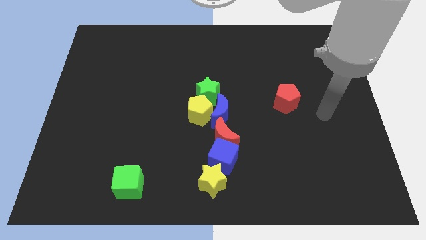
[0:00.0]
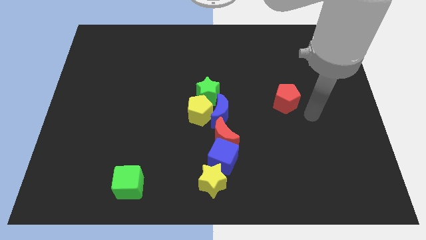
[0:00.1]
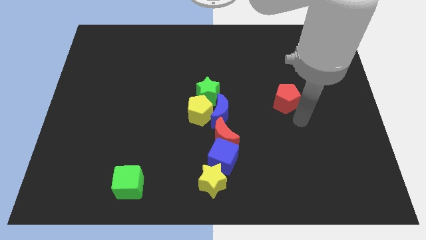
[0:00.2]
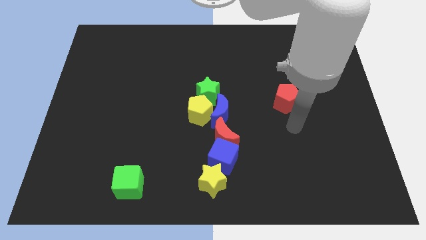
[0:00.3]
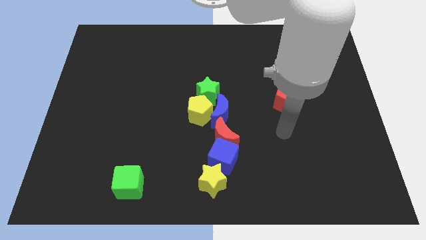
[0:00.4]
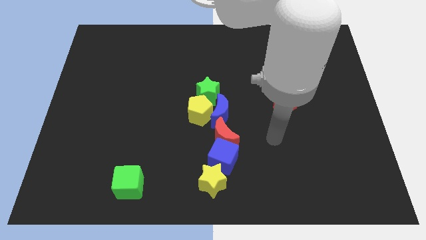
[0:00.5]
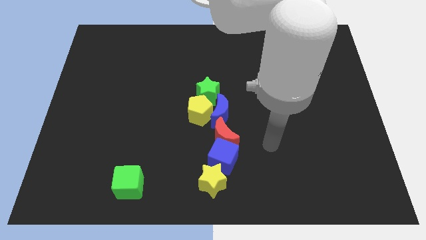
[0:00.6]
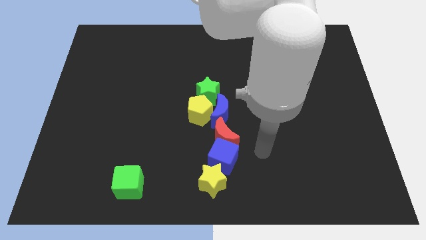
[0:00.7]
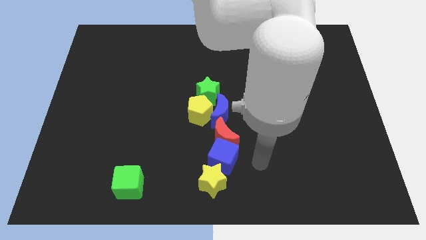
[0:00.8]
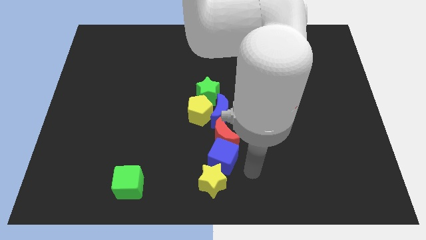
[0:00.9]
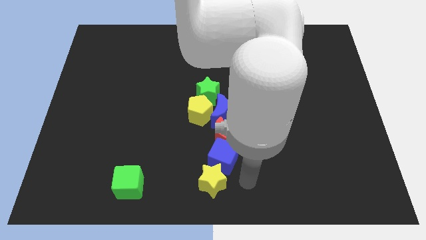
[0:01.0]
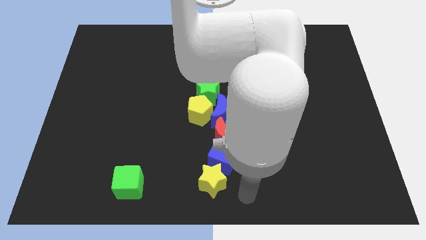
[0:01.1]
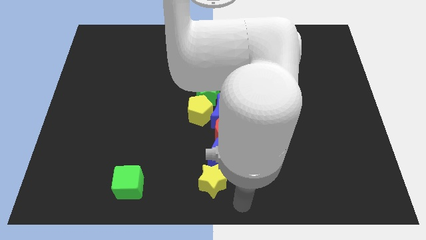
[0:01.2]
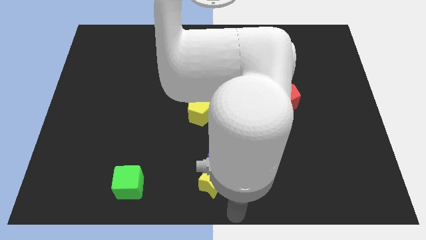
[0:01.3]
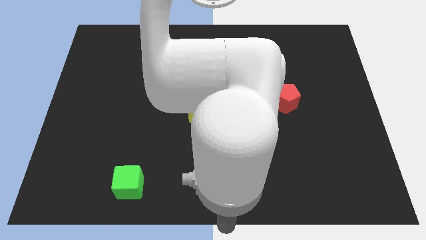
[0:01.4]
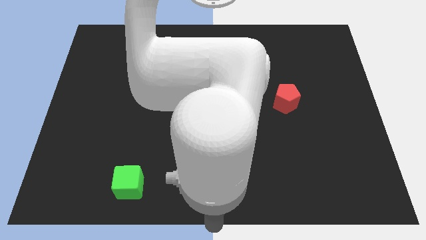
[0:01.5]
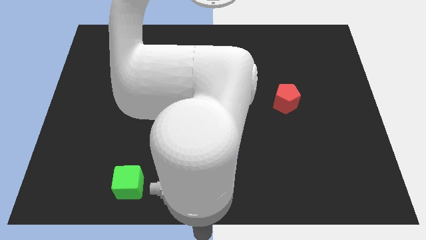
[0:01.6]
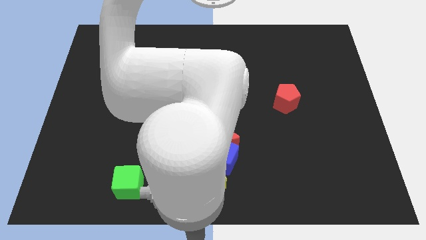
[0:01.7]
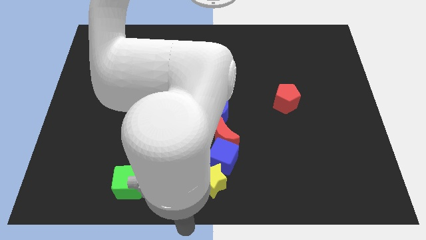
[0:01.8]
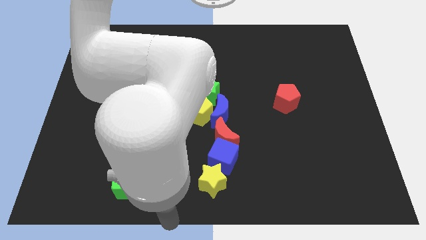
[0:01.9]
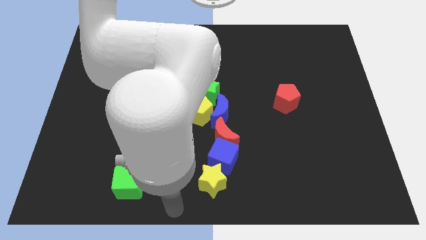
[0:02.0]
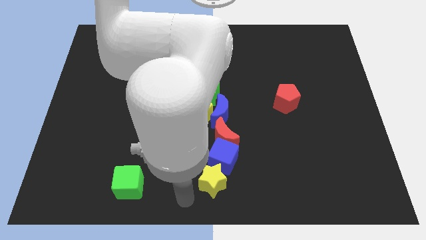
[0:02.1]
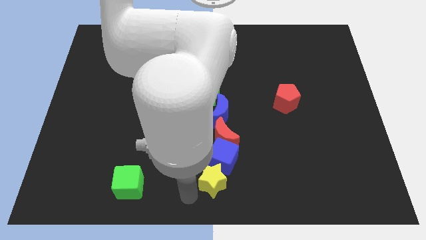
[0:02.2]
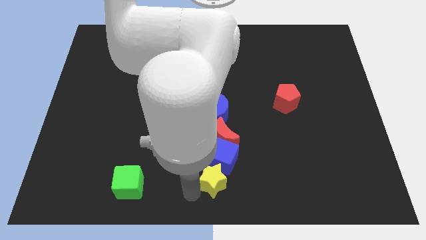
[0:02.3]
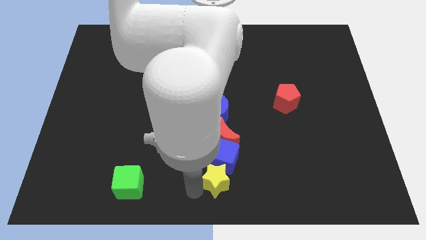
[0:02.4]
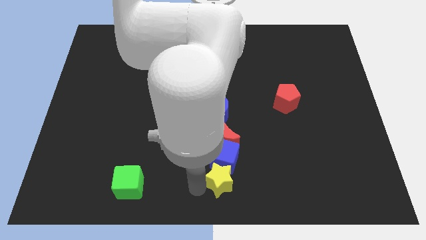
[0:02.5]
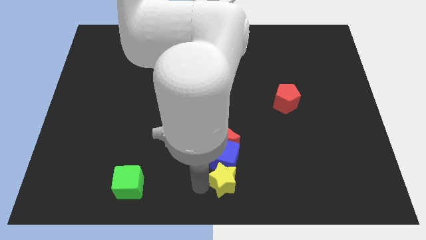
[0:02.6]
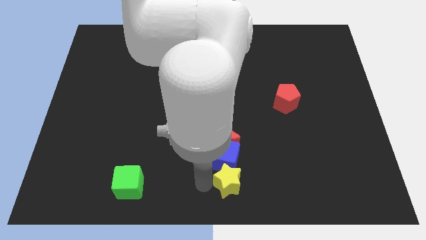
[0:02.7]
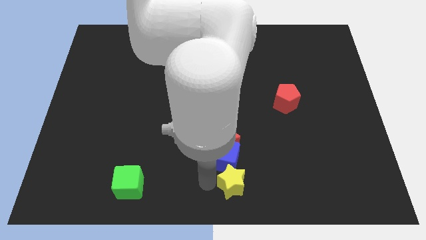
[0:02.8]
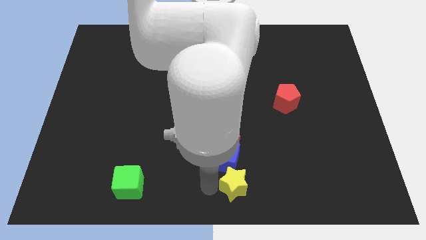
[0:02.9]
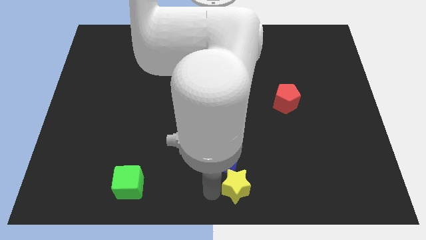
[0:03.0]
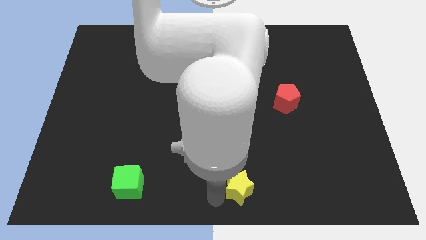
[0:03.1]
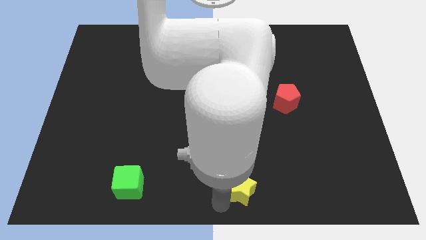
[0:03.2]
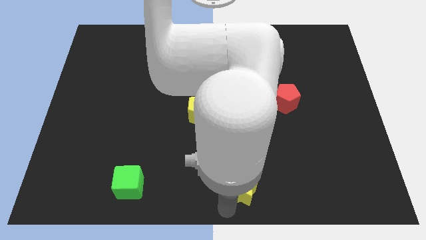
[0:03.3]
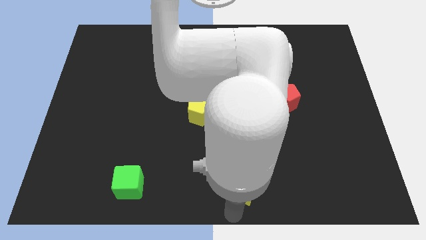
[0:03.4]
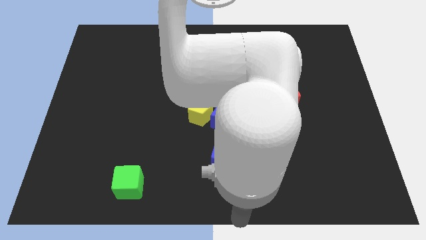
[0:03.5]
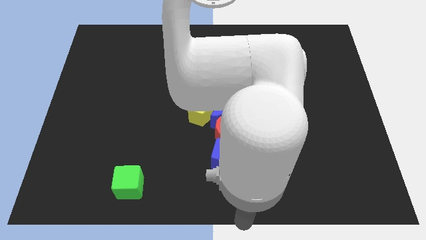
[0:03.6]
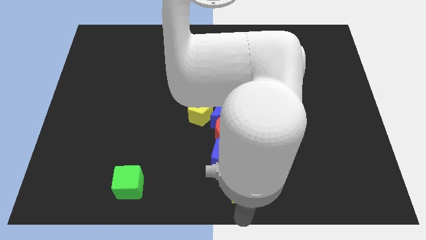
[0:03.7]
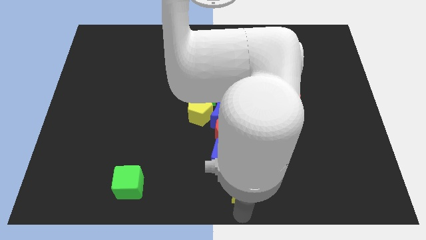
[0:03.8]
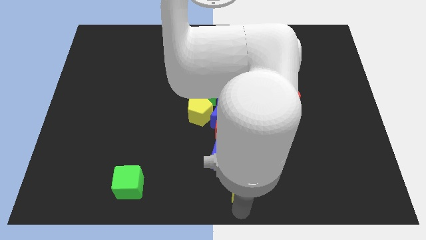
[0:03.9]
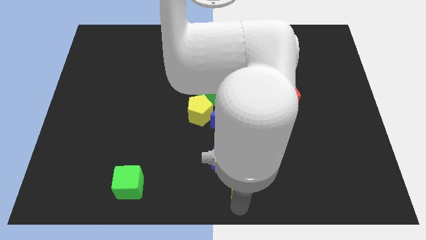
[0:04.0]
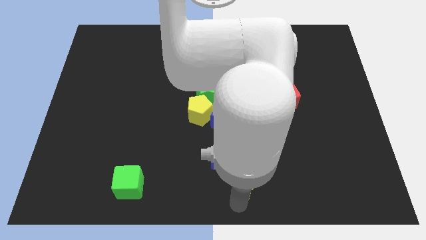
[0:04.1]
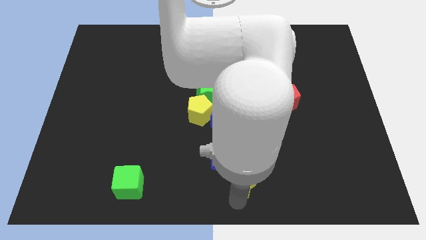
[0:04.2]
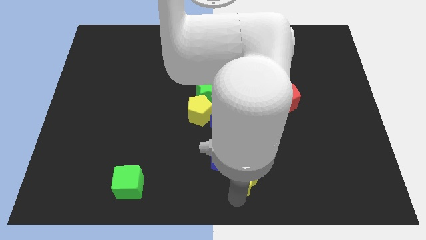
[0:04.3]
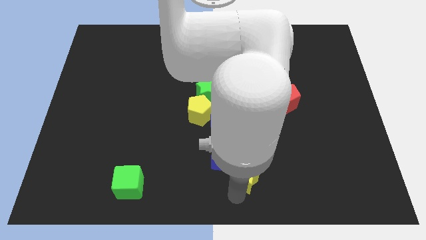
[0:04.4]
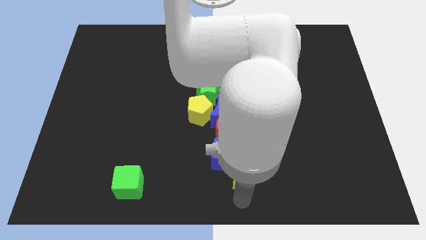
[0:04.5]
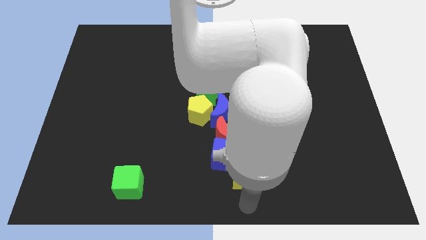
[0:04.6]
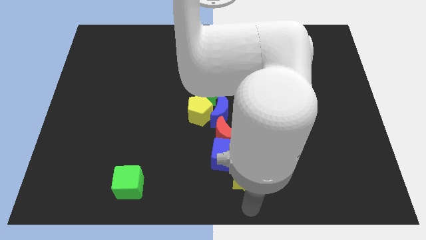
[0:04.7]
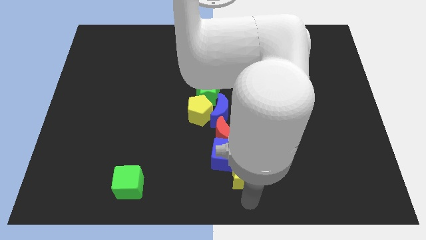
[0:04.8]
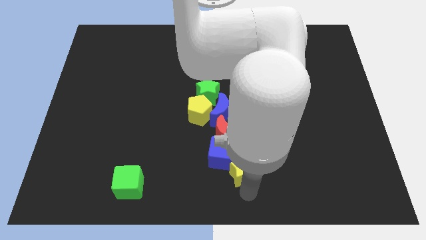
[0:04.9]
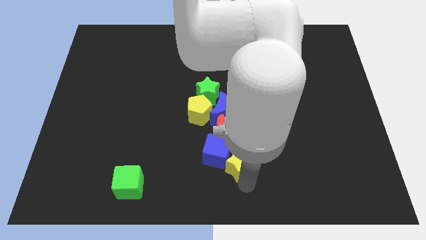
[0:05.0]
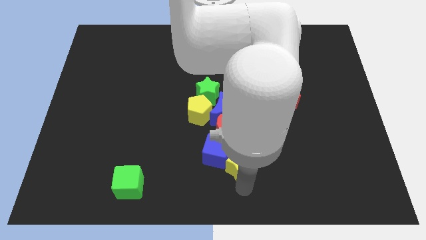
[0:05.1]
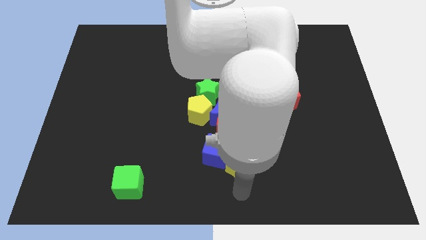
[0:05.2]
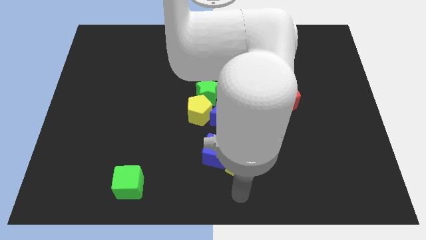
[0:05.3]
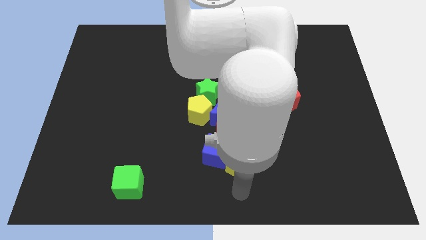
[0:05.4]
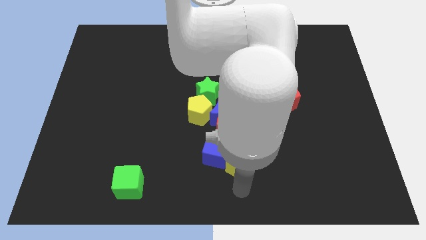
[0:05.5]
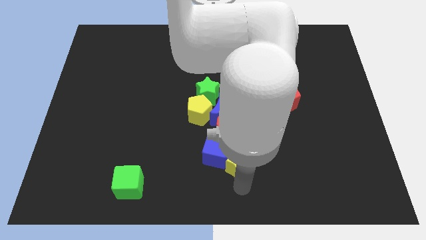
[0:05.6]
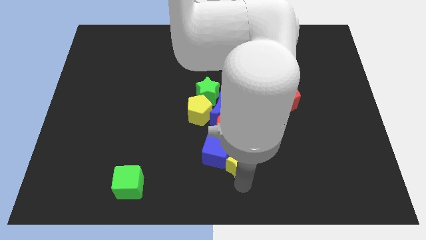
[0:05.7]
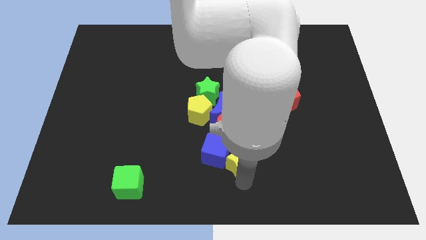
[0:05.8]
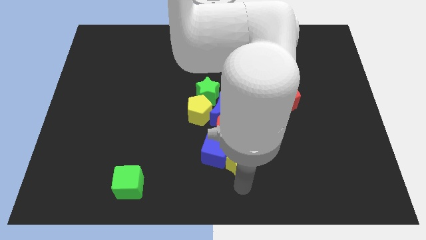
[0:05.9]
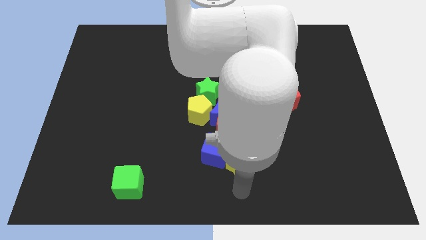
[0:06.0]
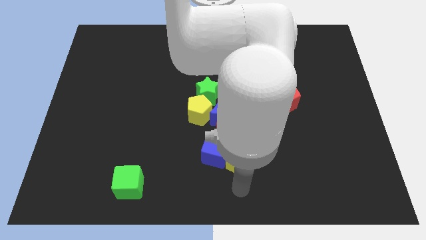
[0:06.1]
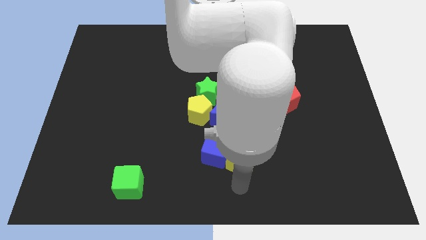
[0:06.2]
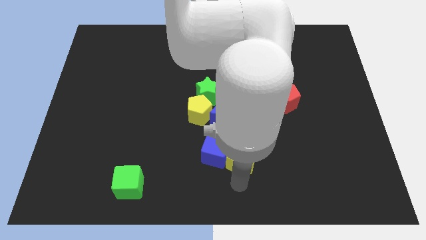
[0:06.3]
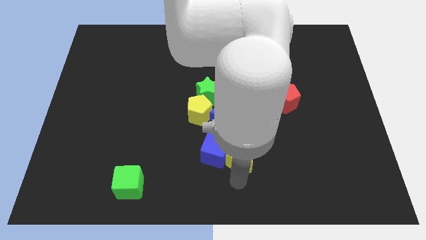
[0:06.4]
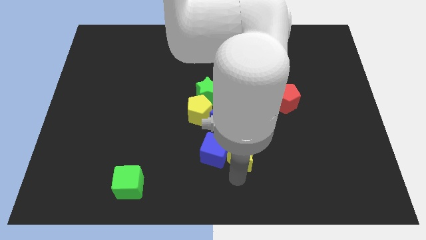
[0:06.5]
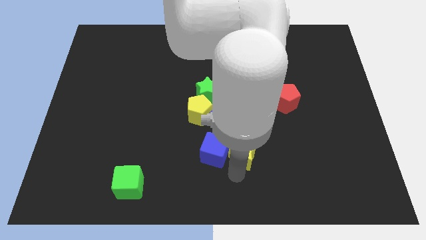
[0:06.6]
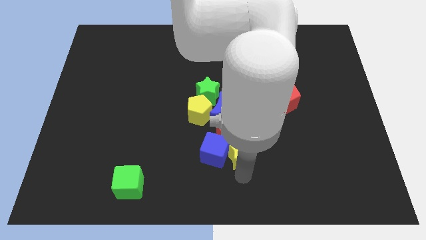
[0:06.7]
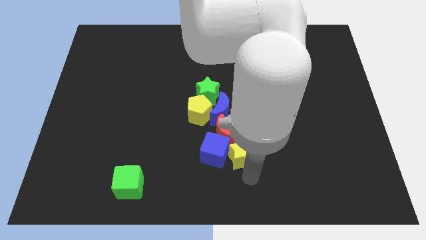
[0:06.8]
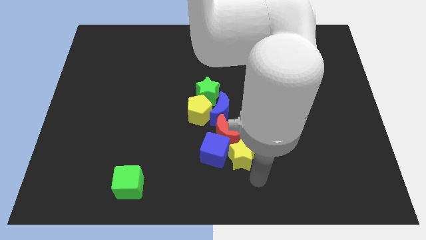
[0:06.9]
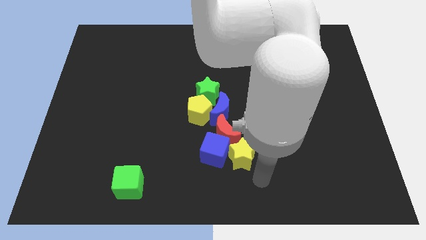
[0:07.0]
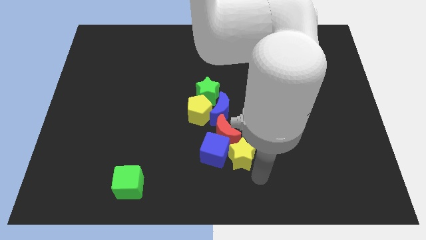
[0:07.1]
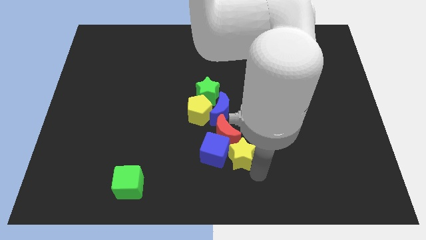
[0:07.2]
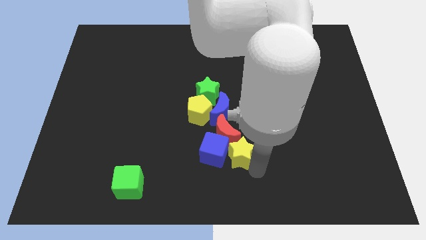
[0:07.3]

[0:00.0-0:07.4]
push the yellow star to the red moon
